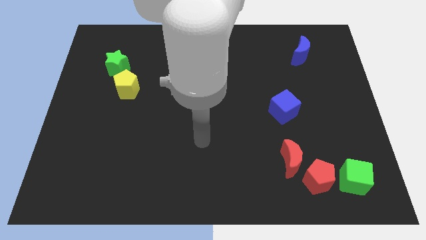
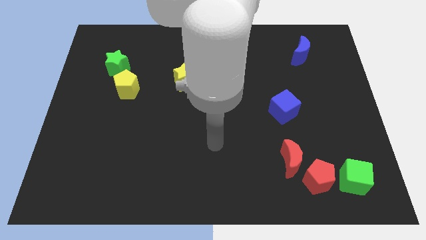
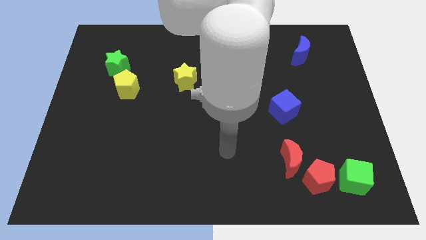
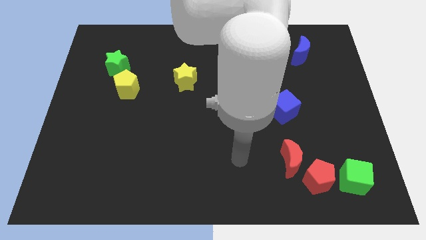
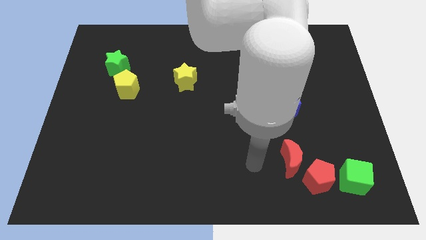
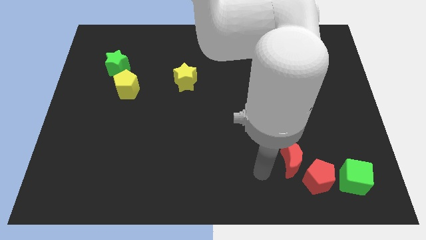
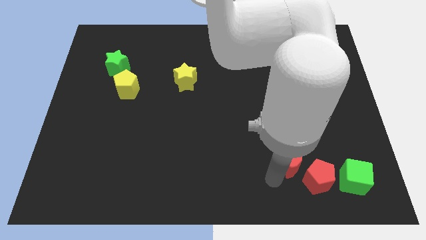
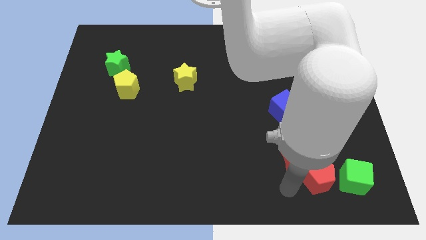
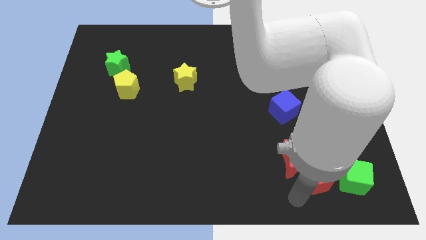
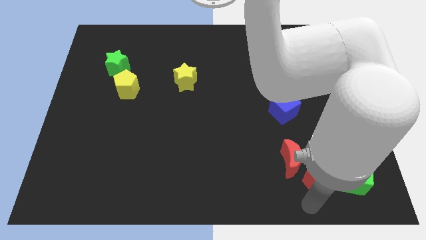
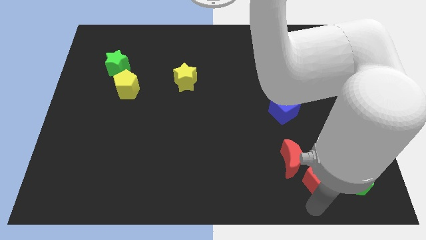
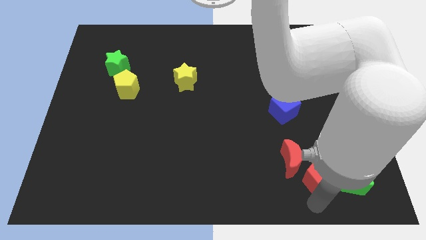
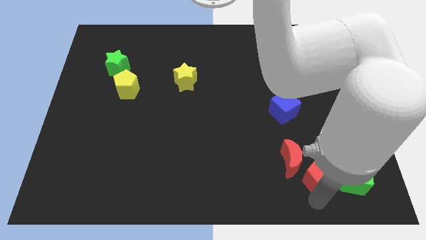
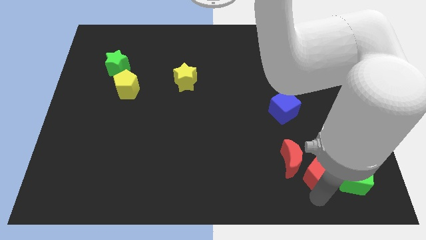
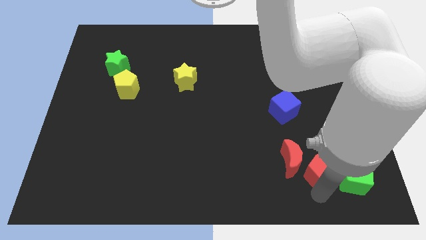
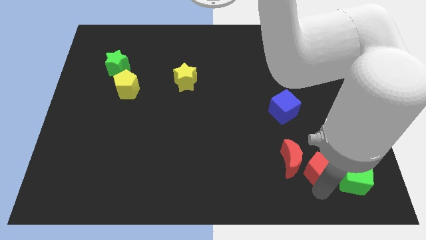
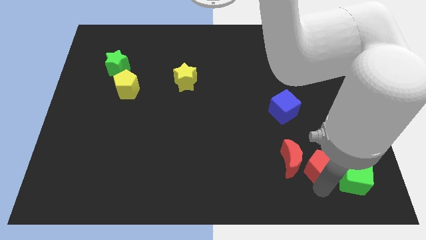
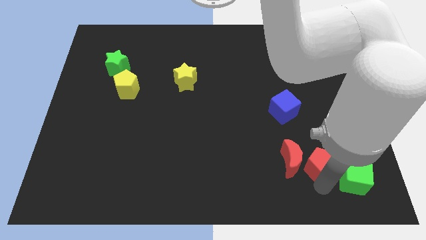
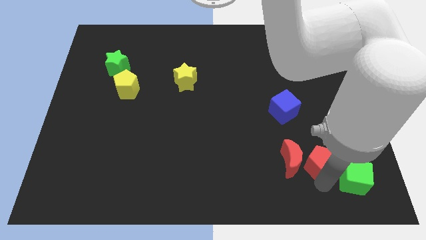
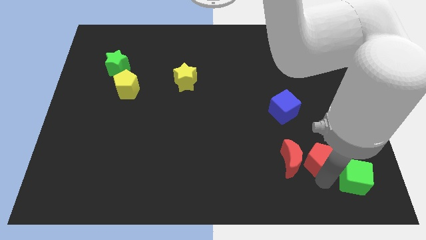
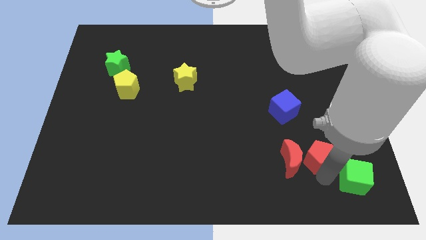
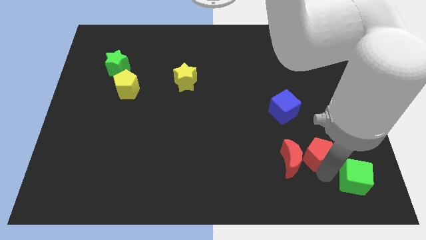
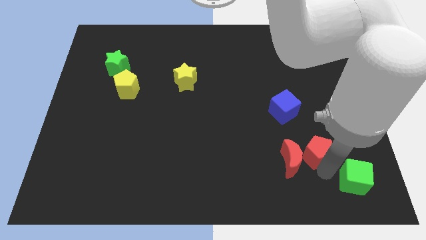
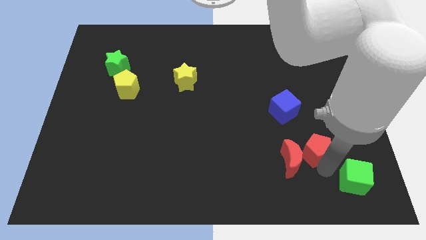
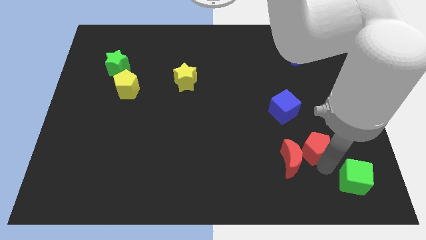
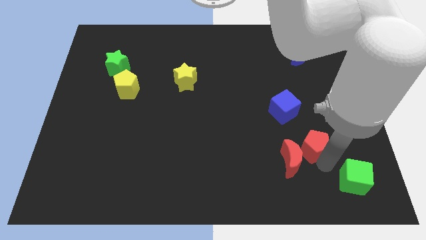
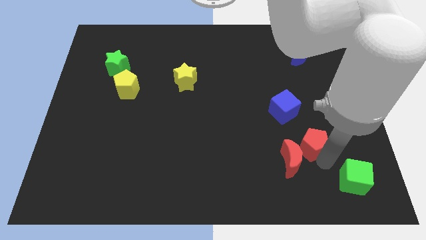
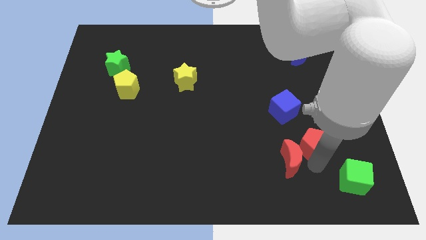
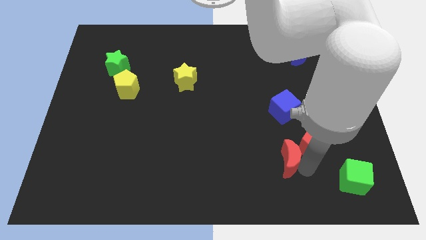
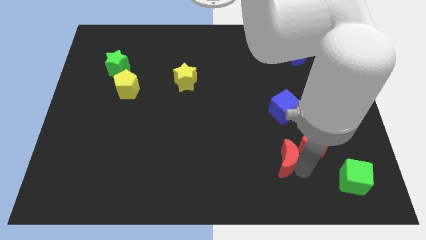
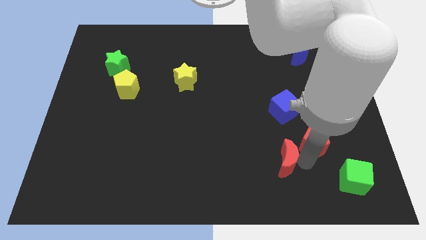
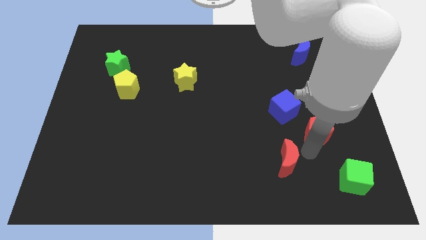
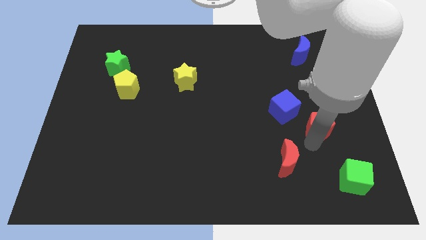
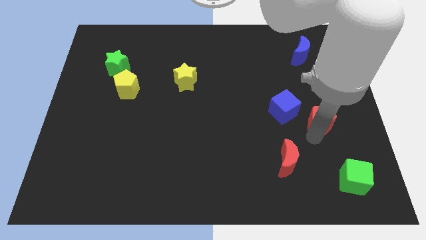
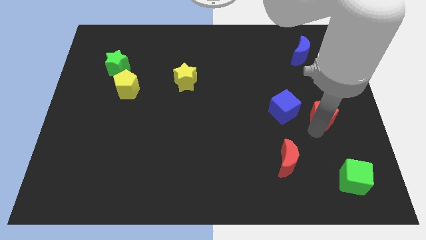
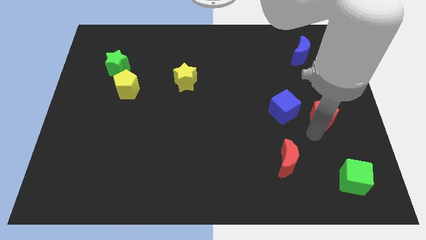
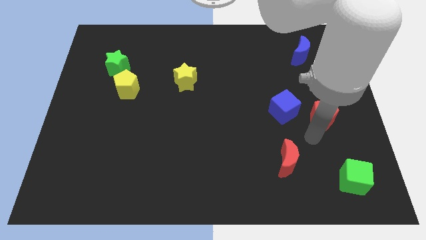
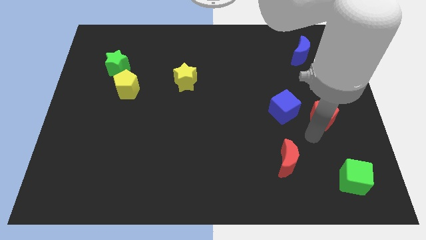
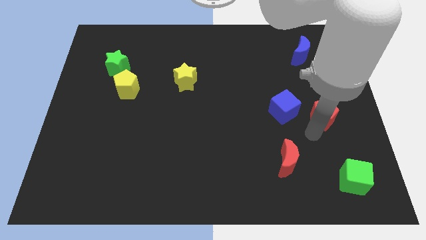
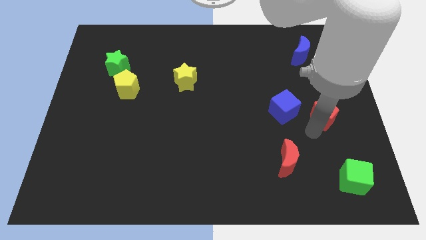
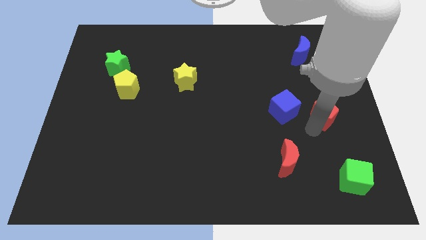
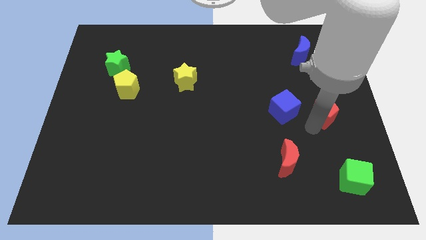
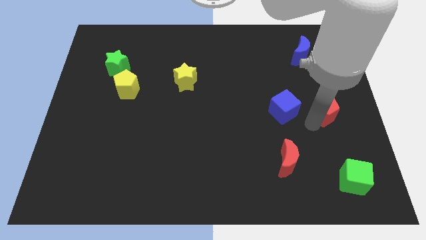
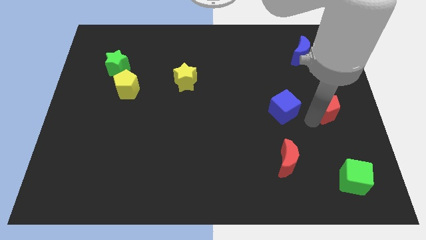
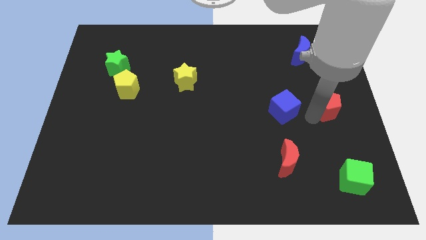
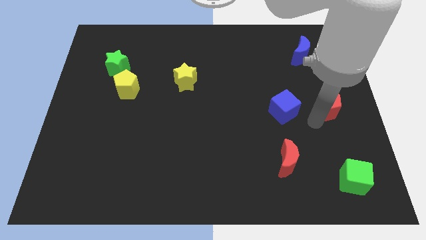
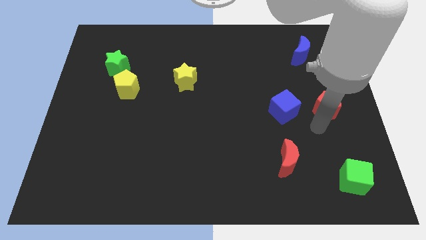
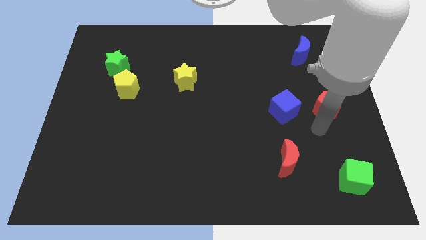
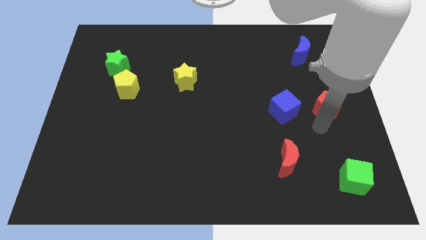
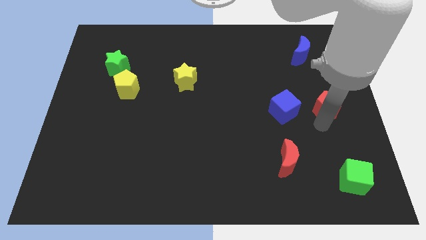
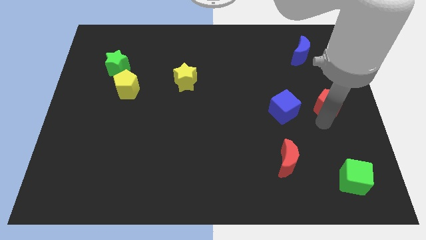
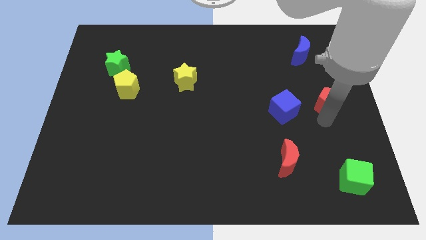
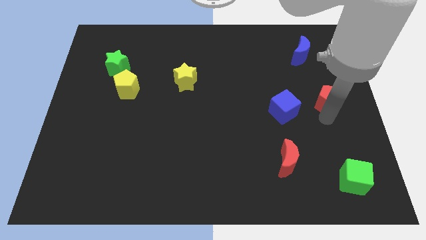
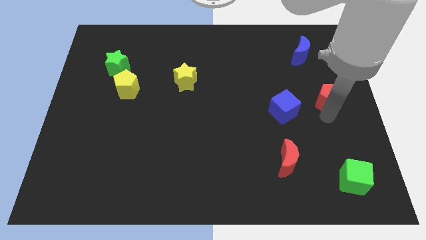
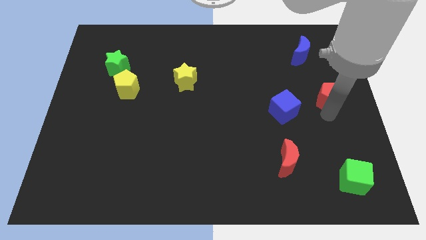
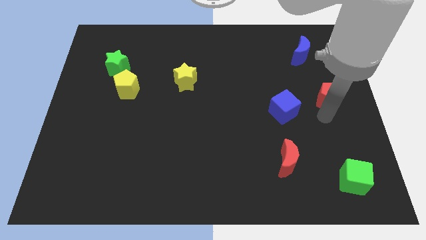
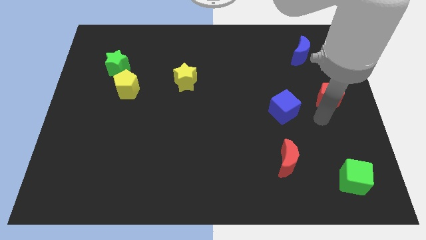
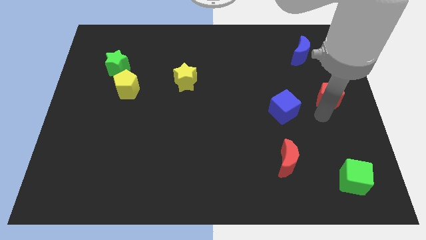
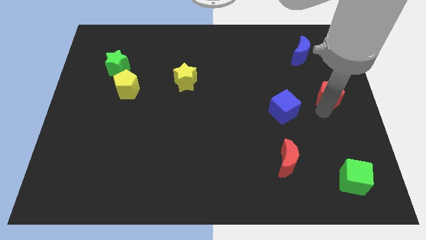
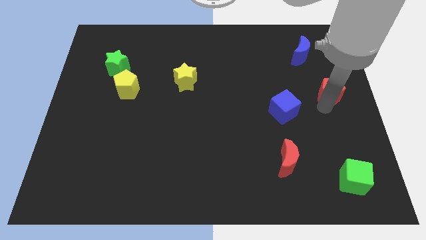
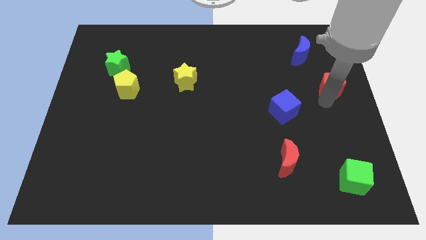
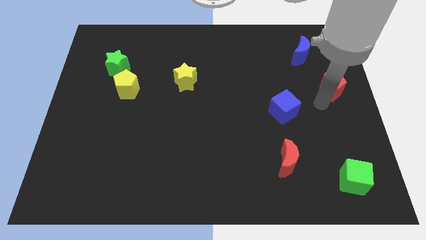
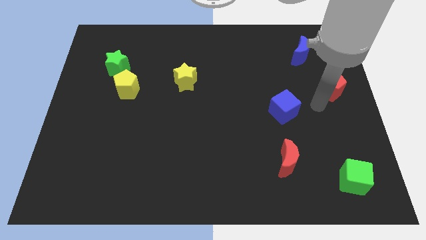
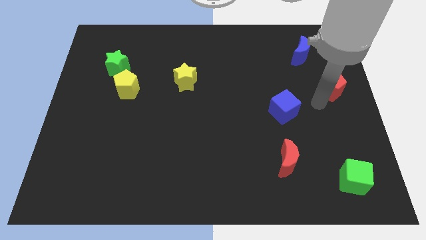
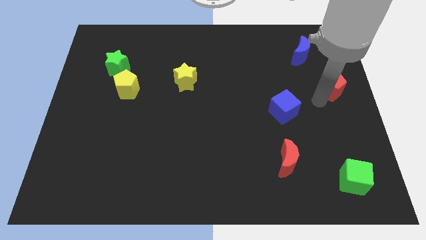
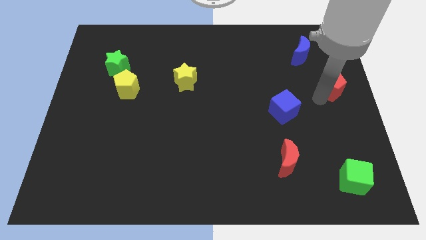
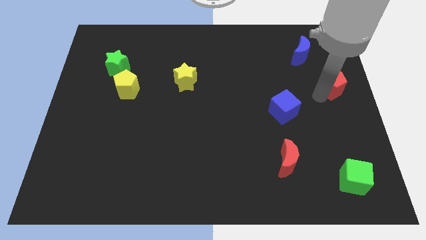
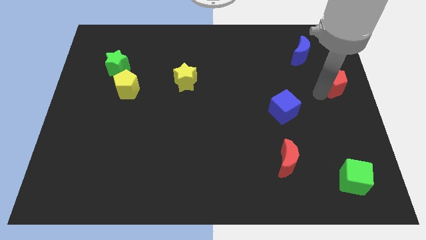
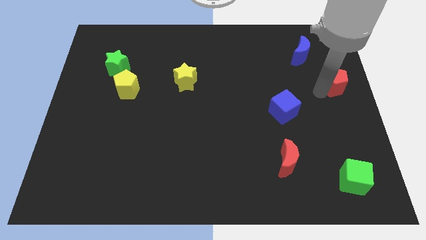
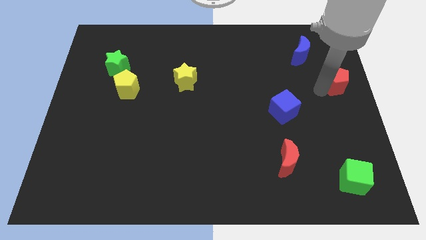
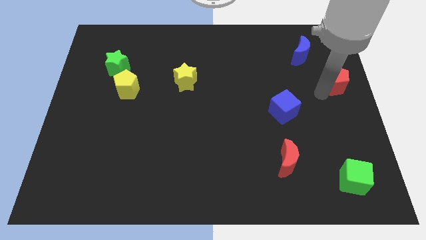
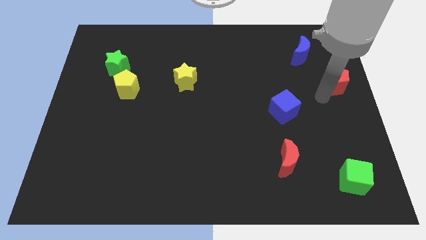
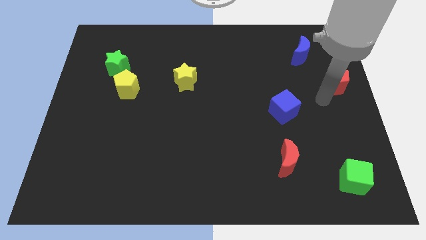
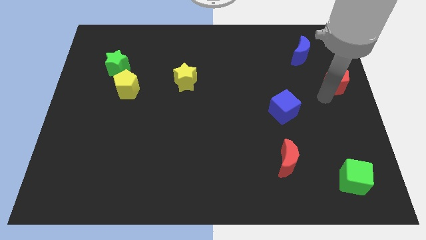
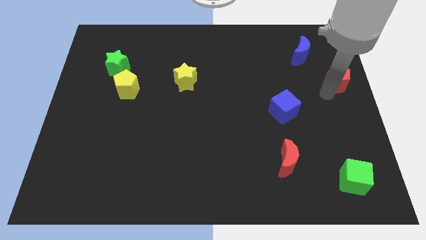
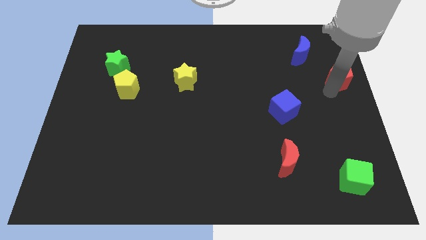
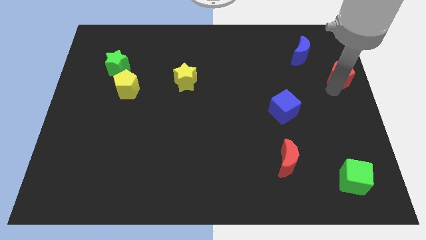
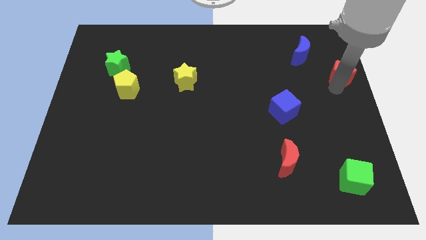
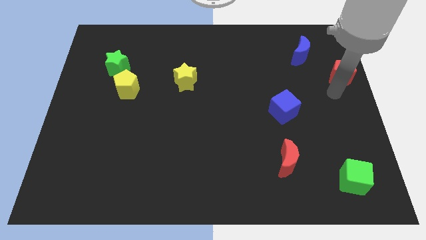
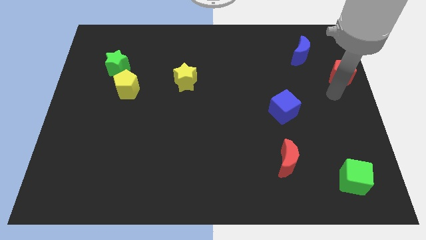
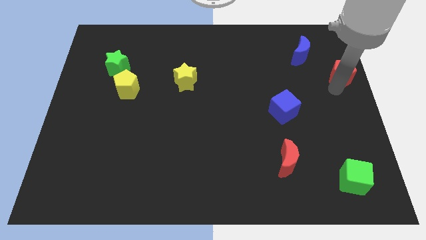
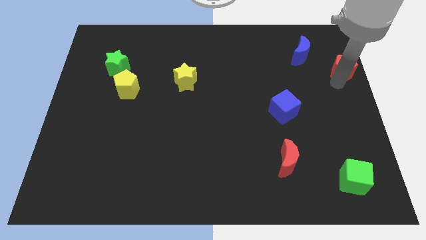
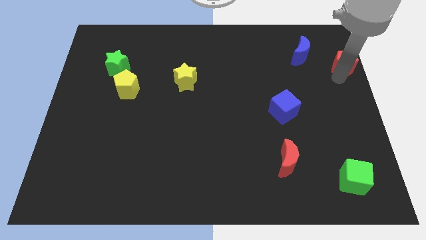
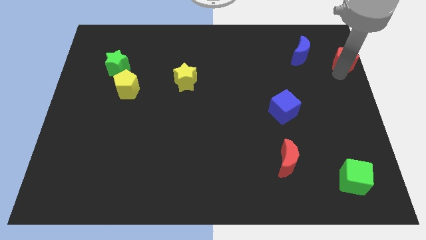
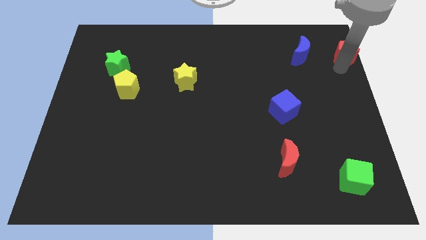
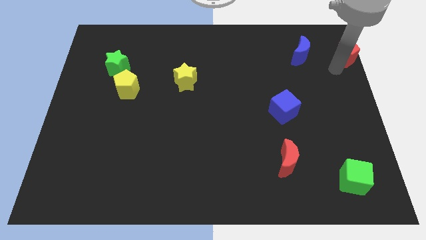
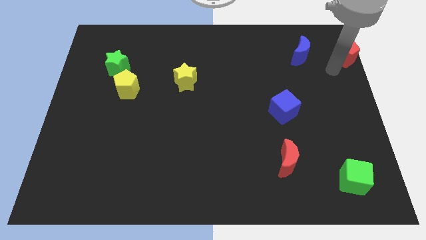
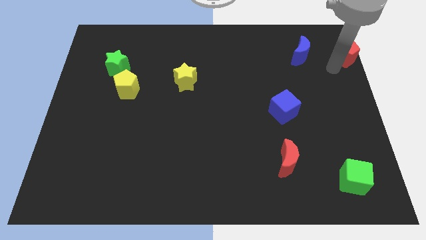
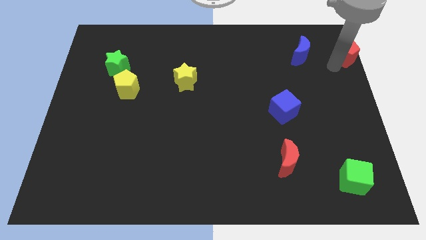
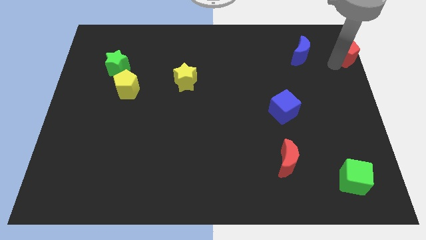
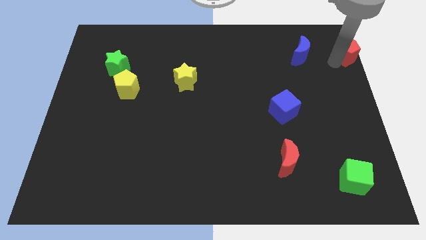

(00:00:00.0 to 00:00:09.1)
put the red pentagon to the top right
